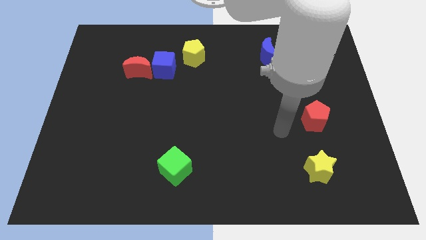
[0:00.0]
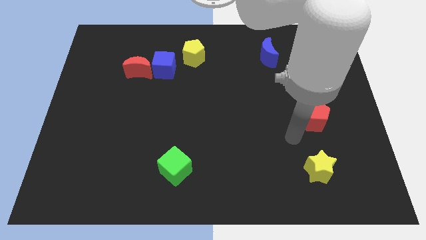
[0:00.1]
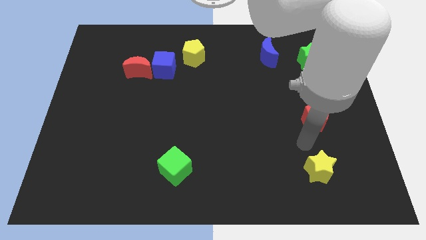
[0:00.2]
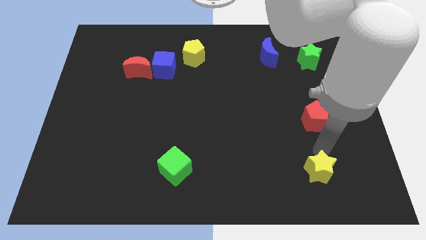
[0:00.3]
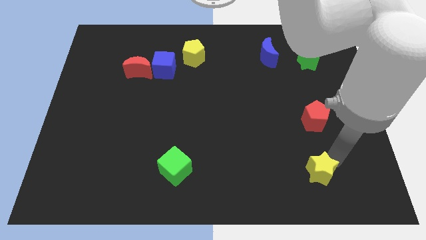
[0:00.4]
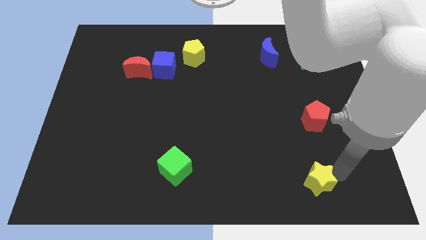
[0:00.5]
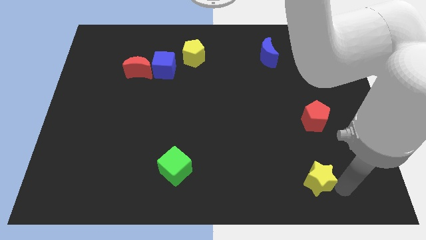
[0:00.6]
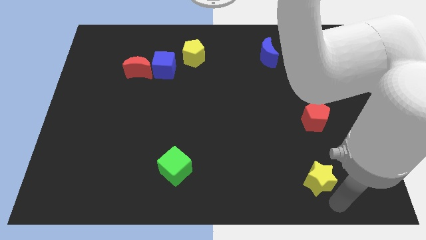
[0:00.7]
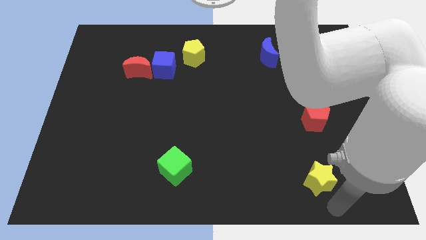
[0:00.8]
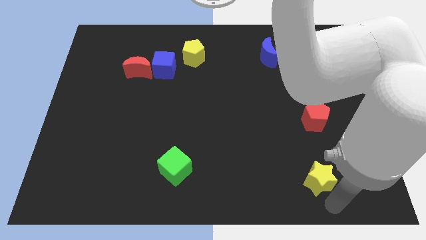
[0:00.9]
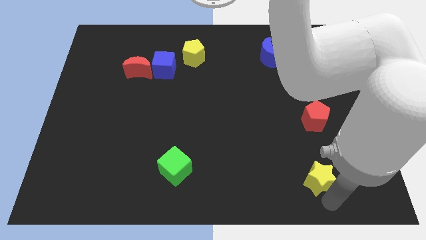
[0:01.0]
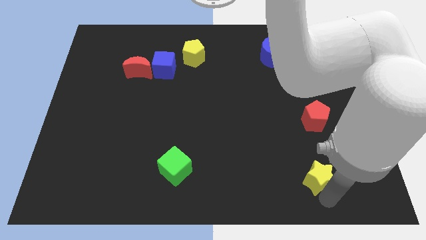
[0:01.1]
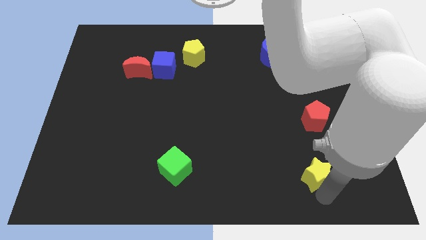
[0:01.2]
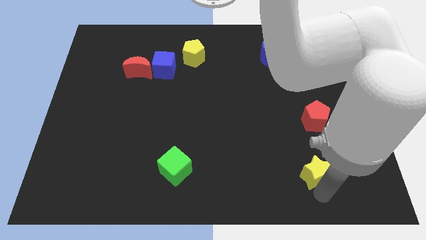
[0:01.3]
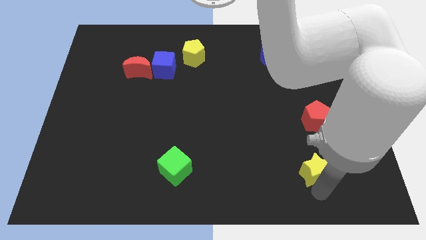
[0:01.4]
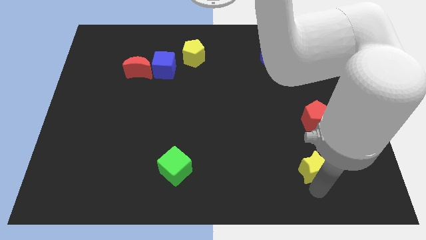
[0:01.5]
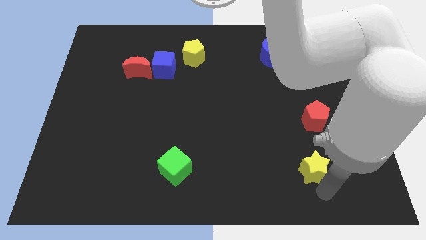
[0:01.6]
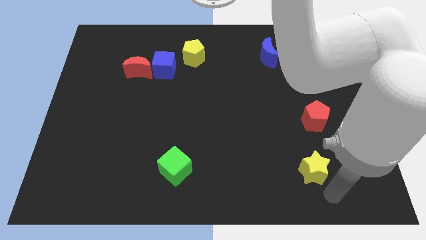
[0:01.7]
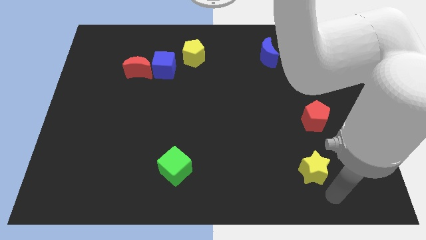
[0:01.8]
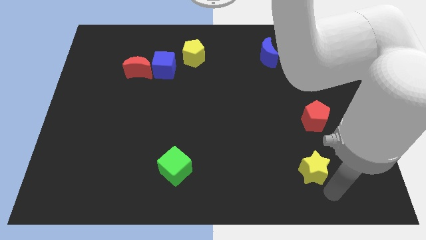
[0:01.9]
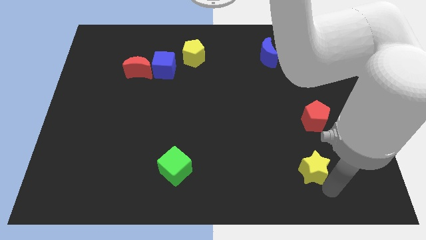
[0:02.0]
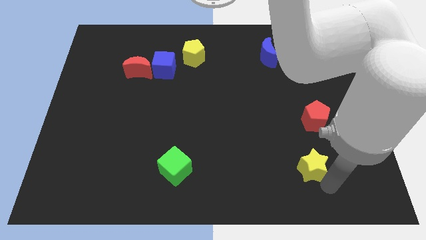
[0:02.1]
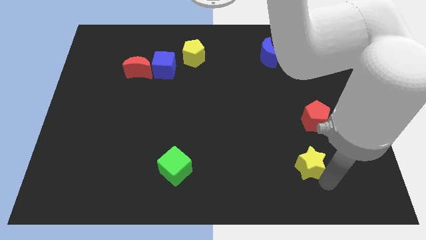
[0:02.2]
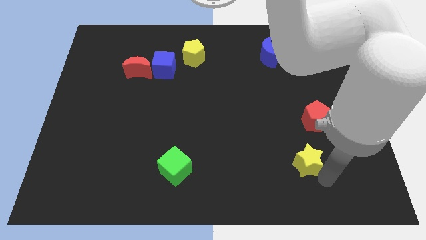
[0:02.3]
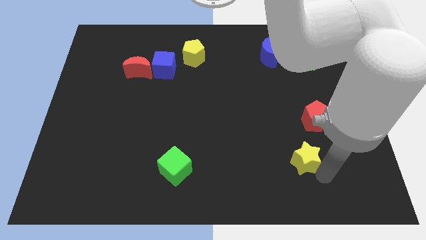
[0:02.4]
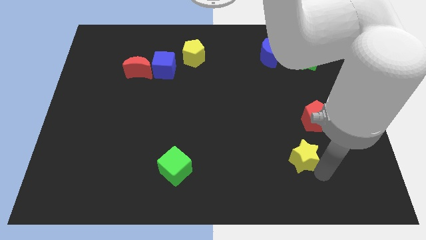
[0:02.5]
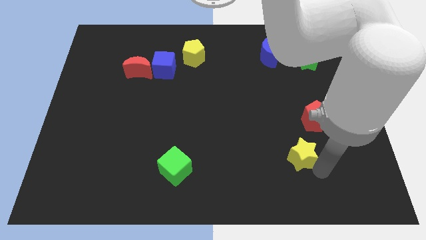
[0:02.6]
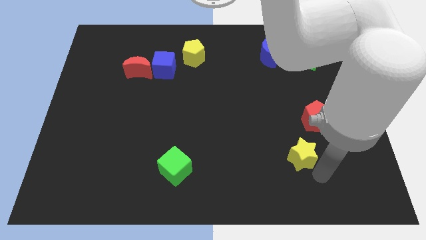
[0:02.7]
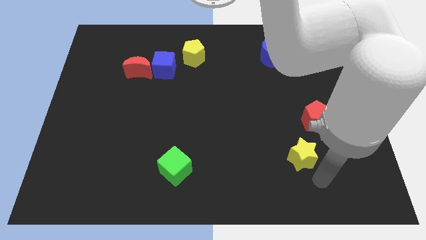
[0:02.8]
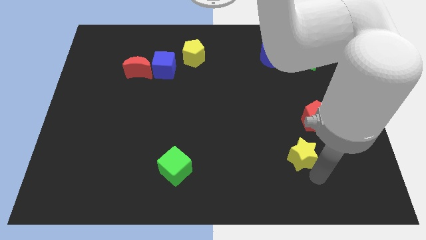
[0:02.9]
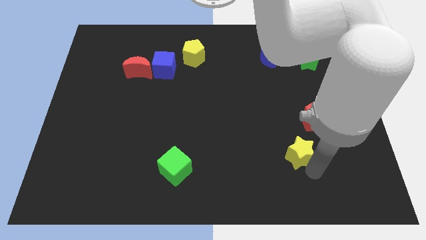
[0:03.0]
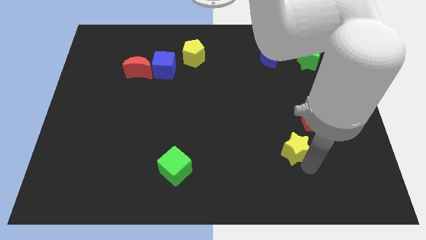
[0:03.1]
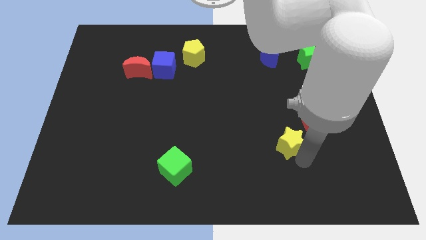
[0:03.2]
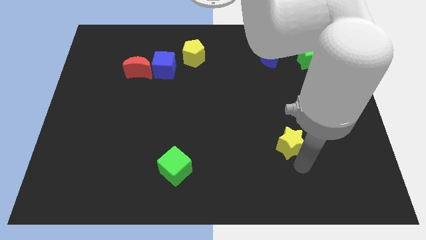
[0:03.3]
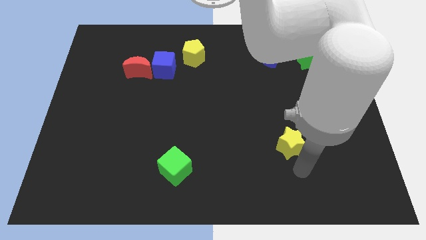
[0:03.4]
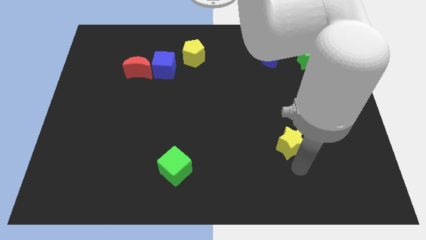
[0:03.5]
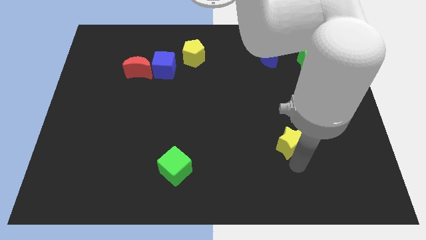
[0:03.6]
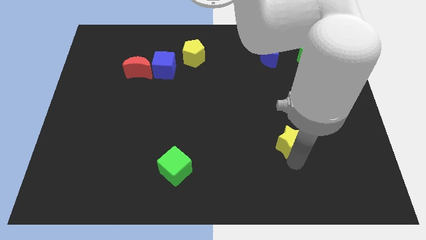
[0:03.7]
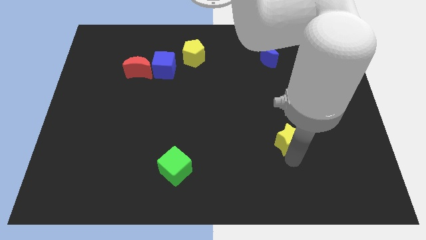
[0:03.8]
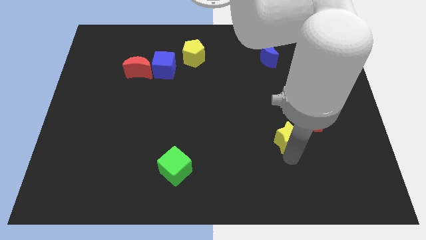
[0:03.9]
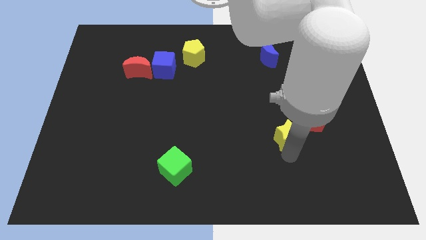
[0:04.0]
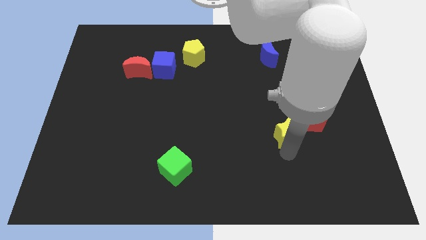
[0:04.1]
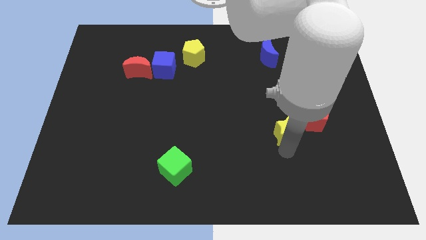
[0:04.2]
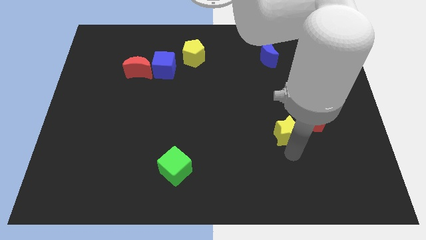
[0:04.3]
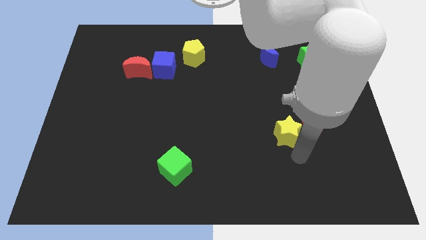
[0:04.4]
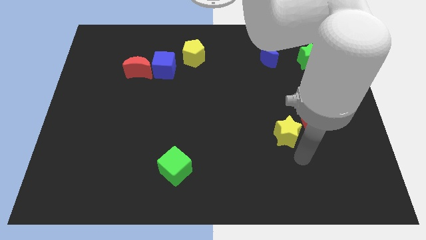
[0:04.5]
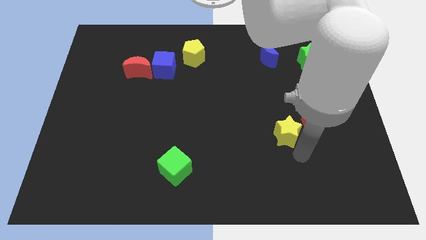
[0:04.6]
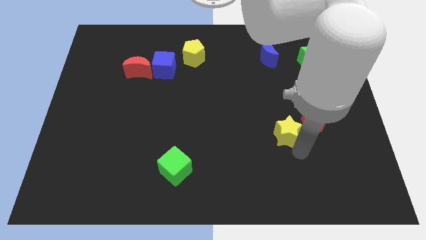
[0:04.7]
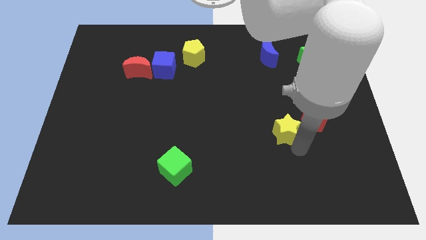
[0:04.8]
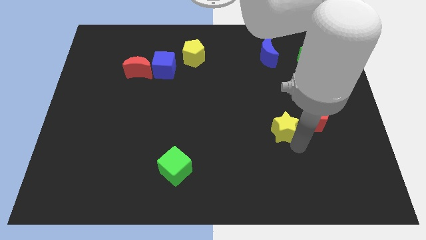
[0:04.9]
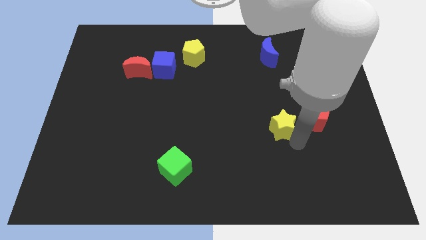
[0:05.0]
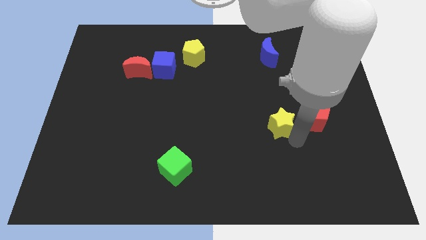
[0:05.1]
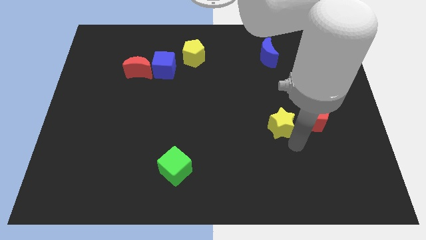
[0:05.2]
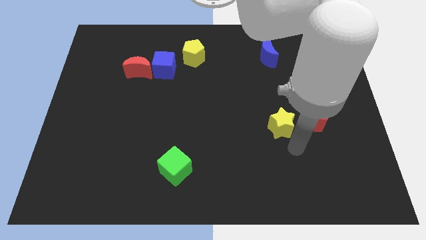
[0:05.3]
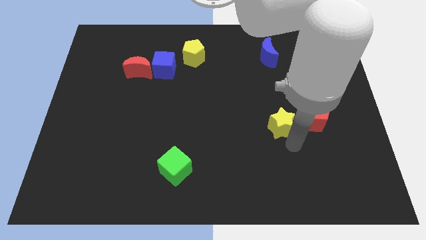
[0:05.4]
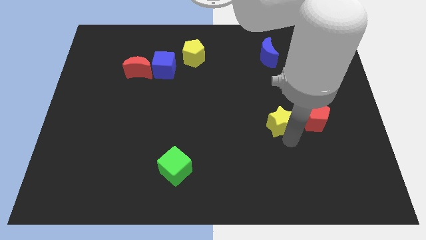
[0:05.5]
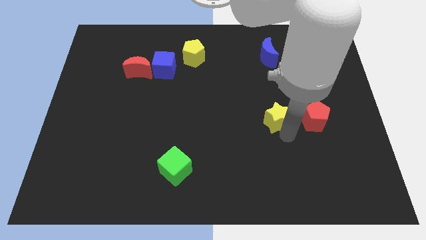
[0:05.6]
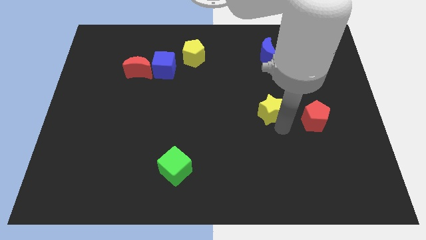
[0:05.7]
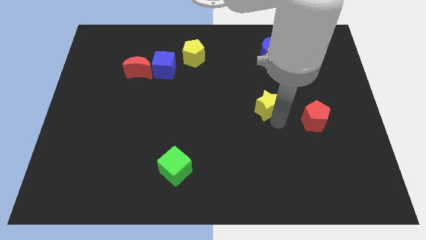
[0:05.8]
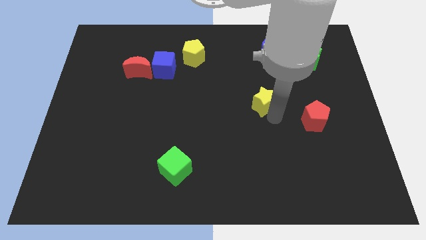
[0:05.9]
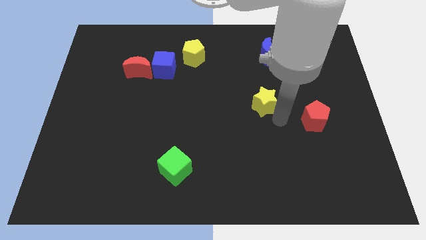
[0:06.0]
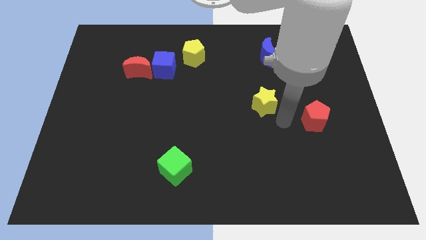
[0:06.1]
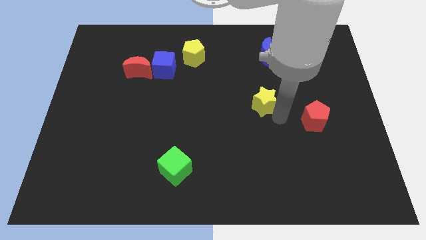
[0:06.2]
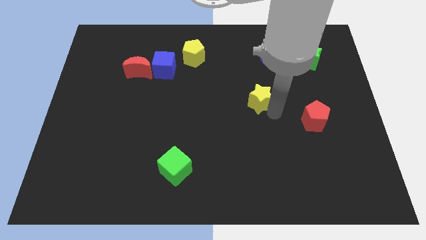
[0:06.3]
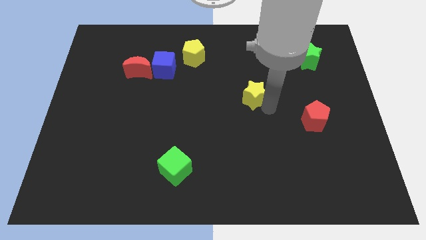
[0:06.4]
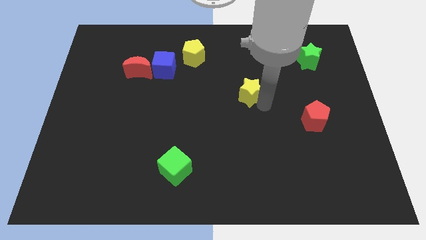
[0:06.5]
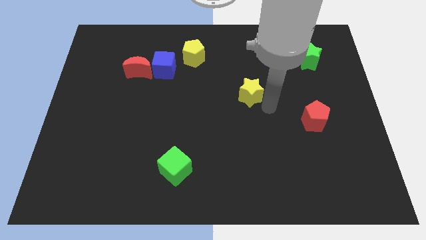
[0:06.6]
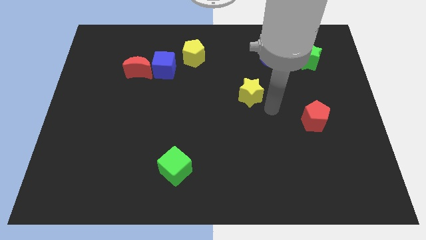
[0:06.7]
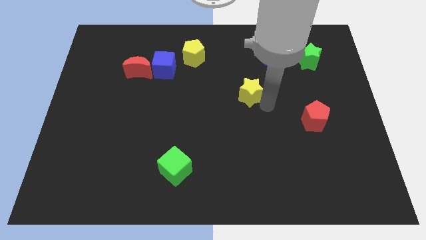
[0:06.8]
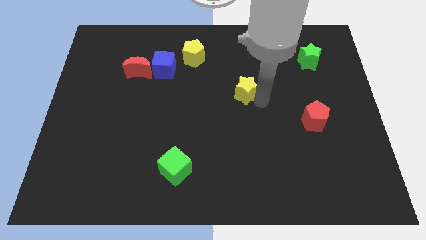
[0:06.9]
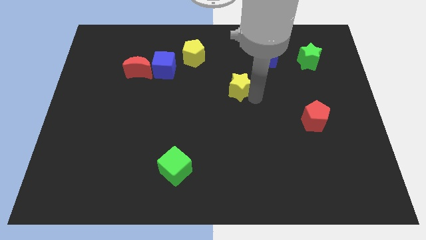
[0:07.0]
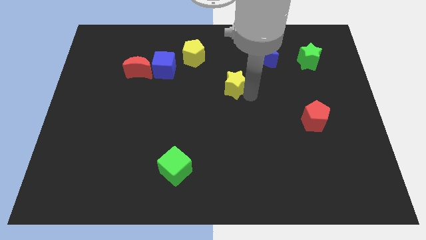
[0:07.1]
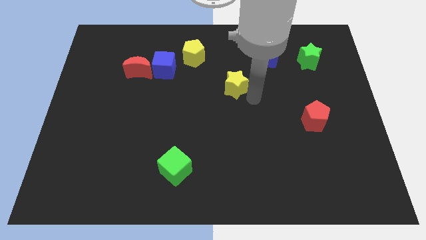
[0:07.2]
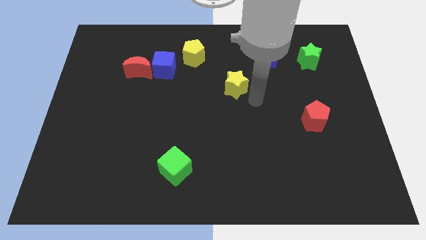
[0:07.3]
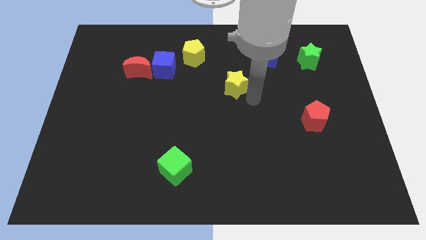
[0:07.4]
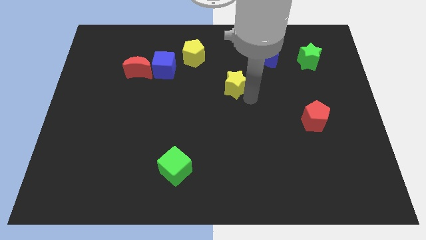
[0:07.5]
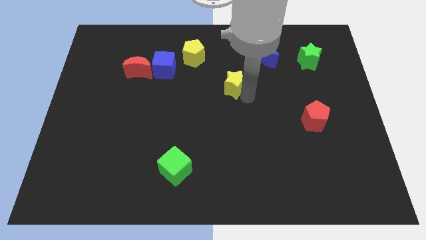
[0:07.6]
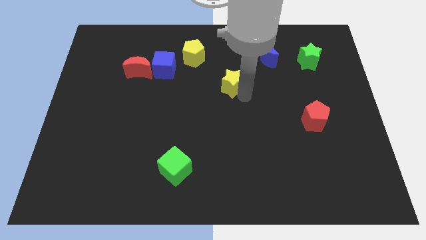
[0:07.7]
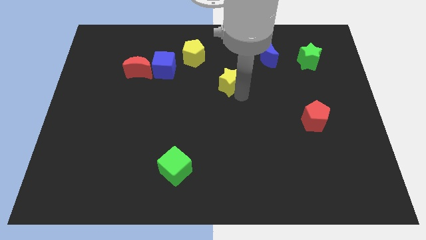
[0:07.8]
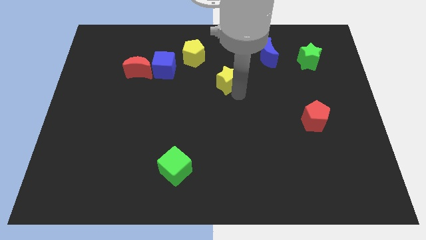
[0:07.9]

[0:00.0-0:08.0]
push the yellow star diagonally down and to the right of the yellow pentagon
